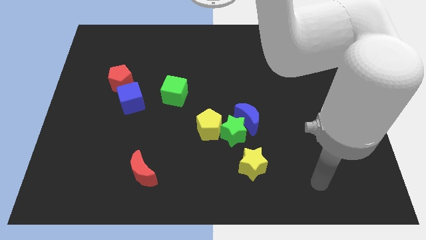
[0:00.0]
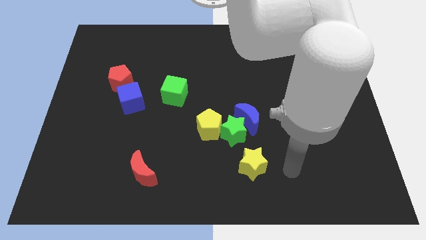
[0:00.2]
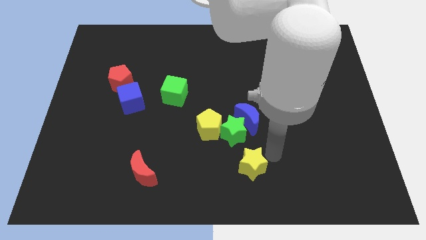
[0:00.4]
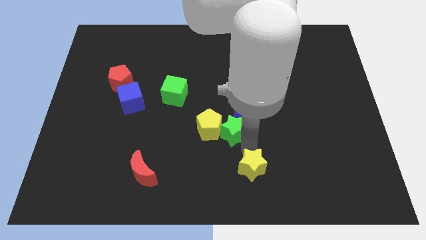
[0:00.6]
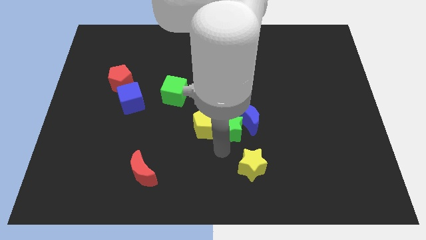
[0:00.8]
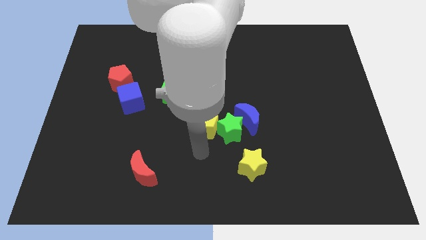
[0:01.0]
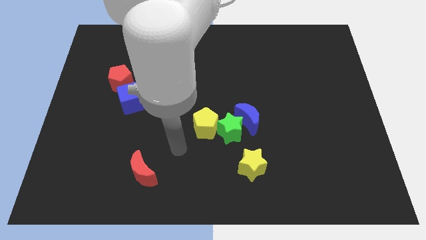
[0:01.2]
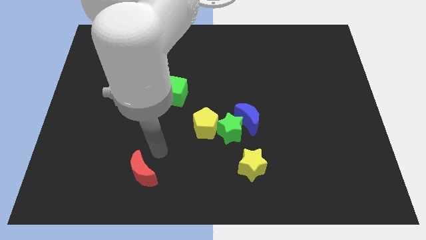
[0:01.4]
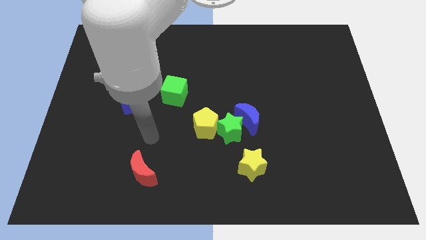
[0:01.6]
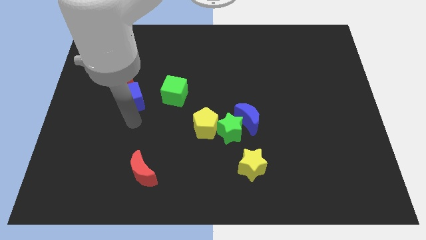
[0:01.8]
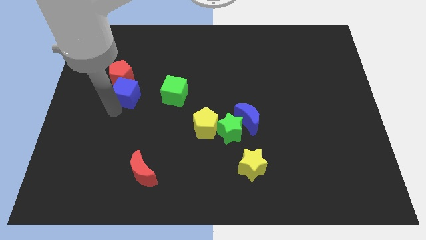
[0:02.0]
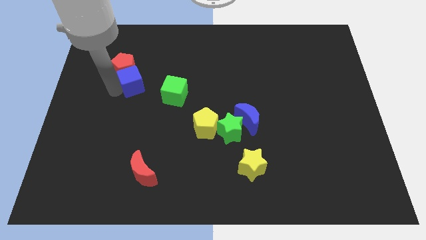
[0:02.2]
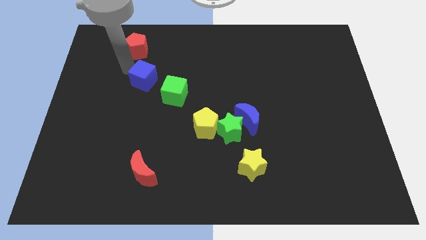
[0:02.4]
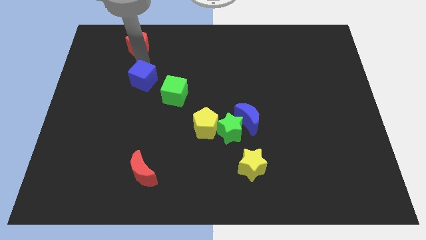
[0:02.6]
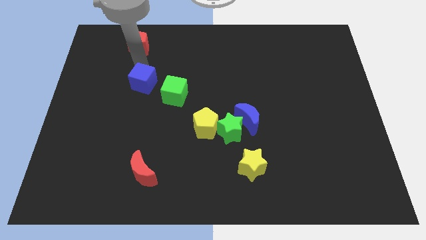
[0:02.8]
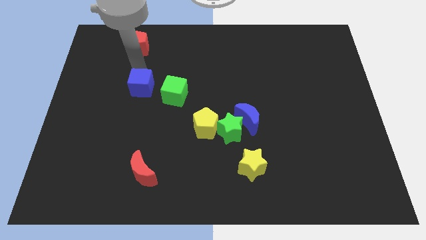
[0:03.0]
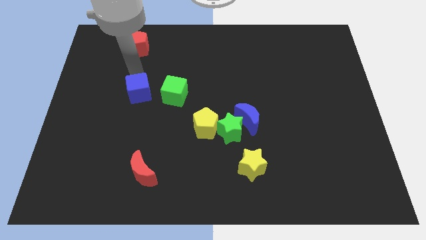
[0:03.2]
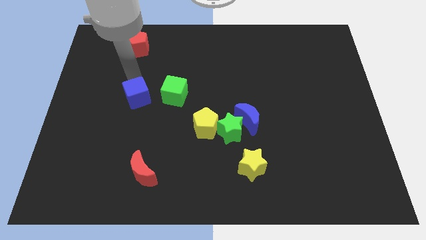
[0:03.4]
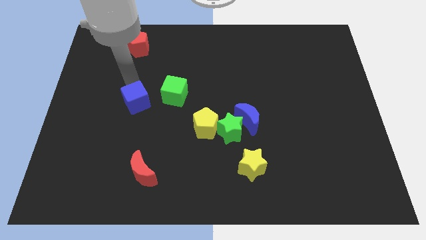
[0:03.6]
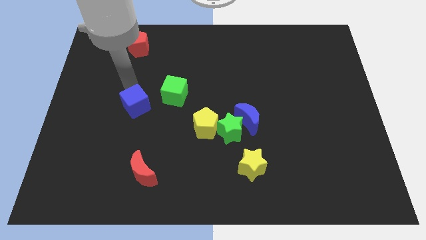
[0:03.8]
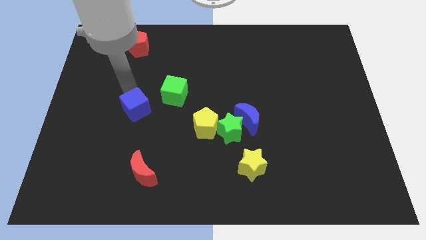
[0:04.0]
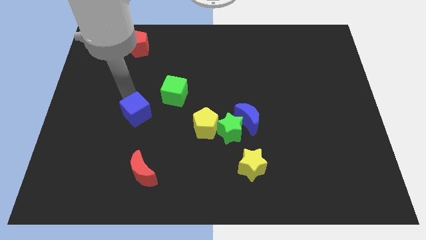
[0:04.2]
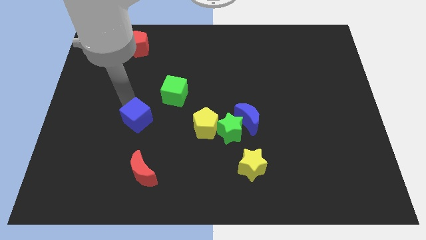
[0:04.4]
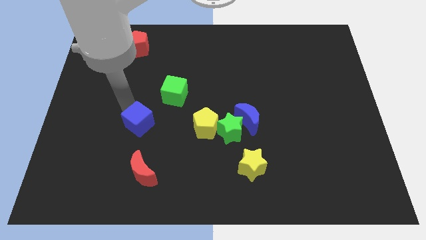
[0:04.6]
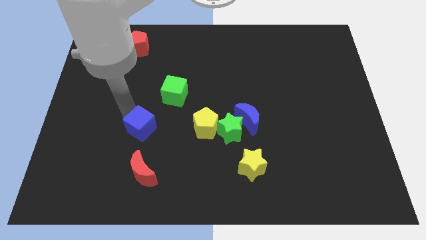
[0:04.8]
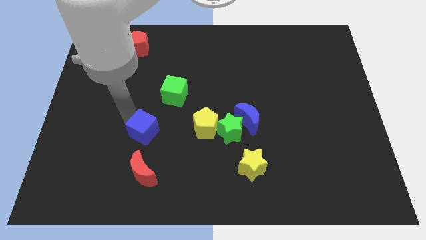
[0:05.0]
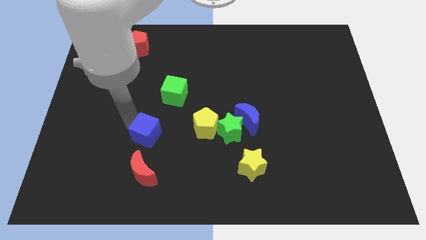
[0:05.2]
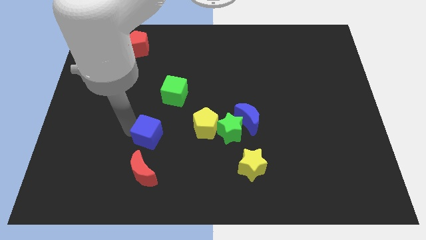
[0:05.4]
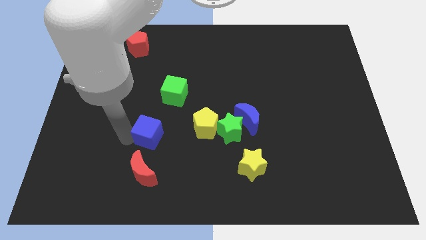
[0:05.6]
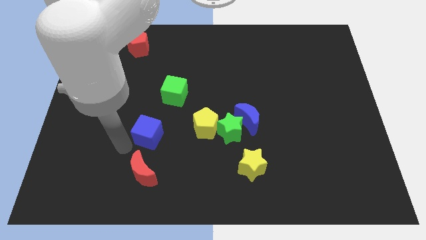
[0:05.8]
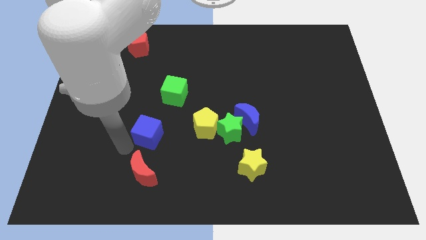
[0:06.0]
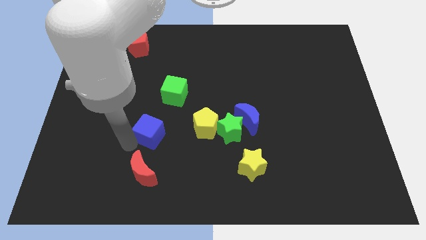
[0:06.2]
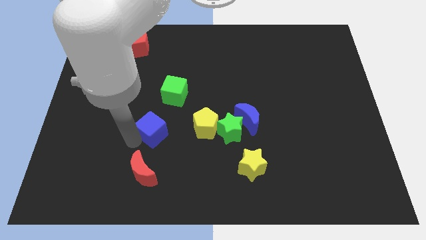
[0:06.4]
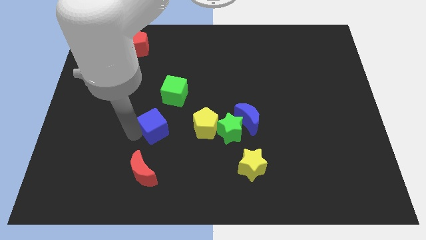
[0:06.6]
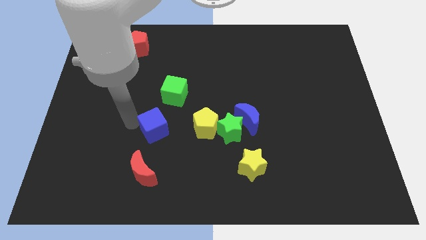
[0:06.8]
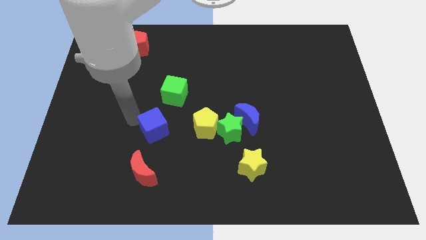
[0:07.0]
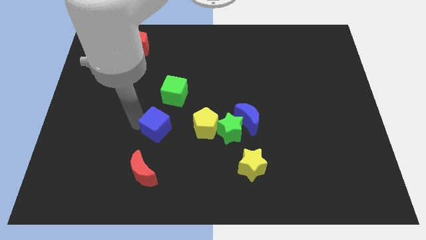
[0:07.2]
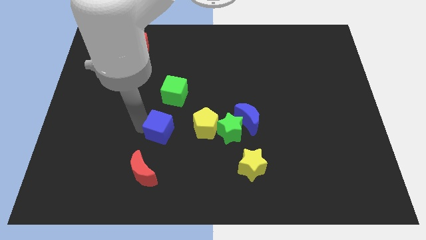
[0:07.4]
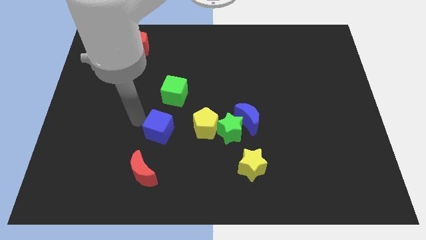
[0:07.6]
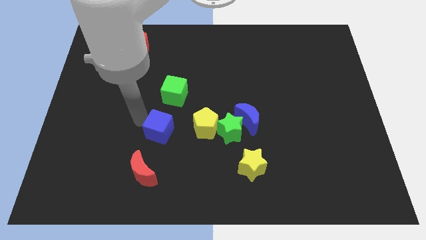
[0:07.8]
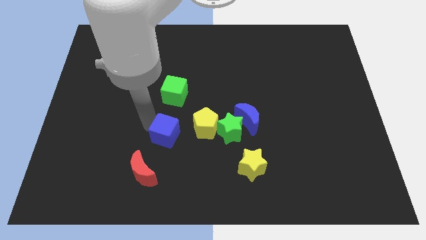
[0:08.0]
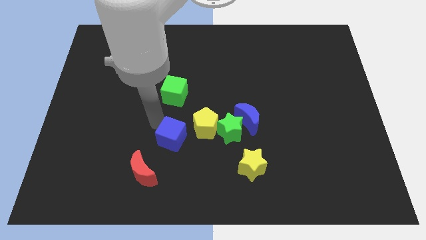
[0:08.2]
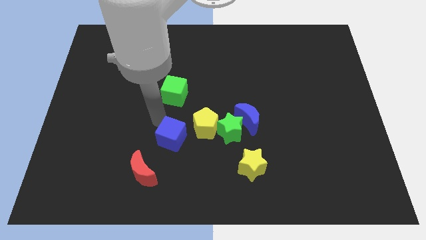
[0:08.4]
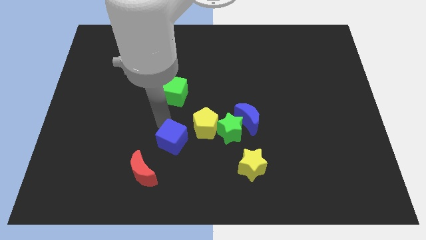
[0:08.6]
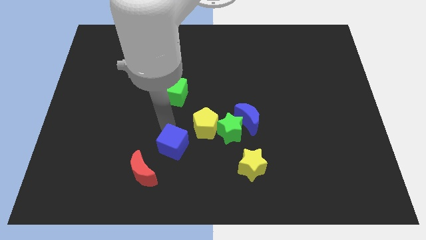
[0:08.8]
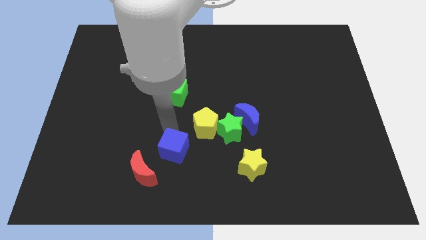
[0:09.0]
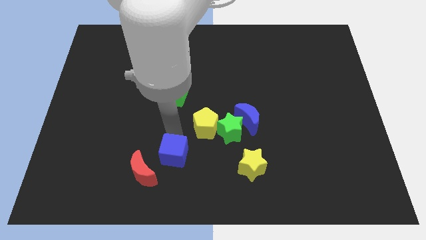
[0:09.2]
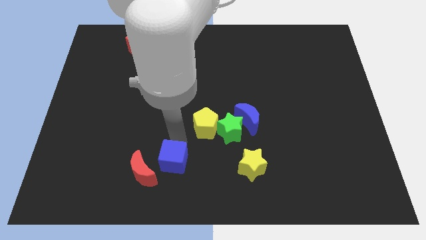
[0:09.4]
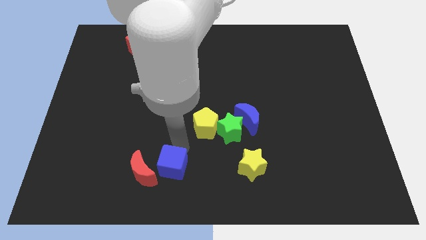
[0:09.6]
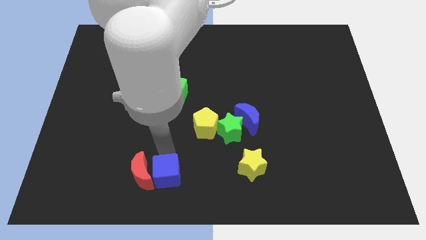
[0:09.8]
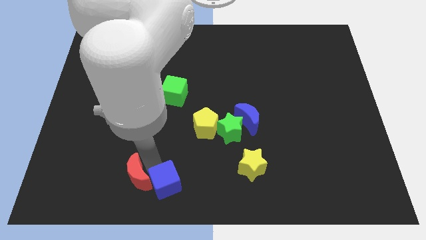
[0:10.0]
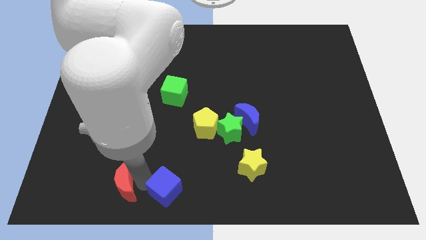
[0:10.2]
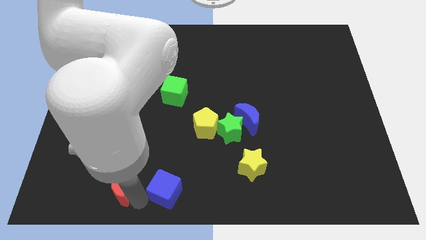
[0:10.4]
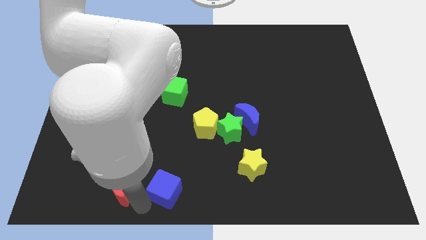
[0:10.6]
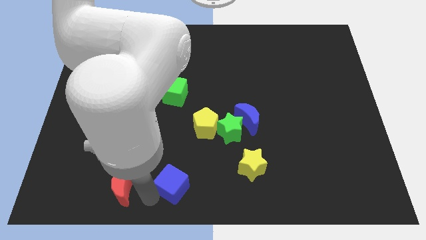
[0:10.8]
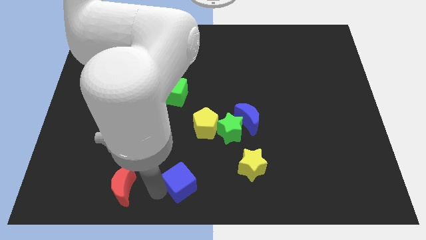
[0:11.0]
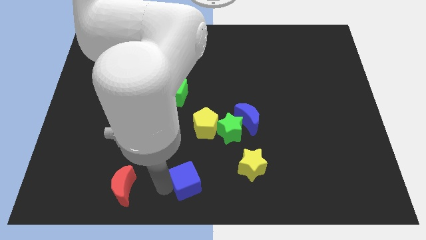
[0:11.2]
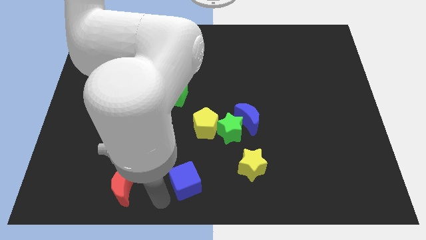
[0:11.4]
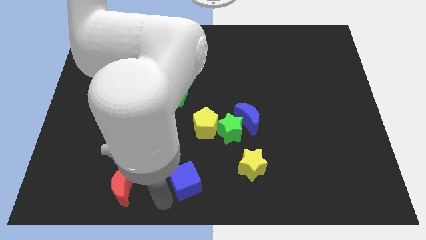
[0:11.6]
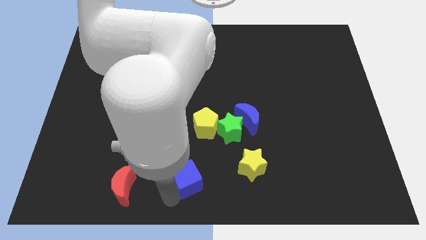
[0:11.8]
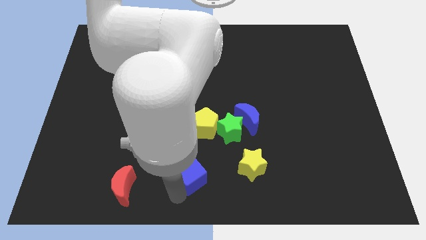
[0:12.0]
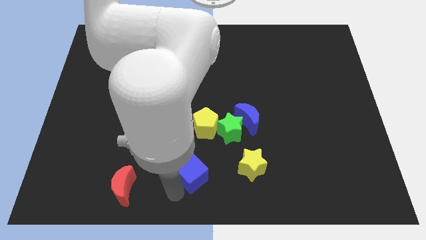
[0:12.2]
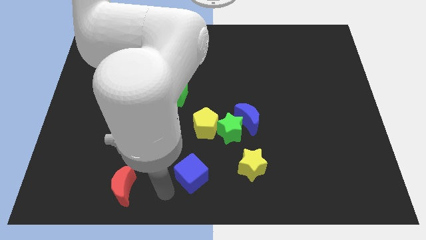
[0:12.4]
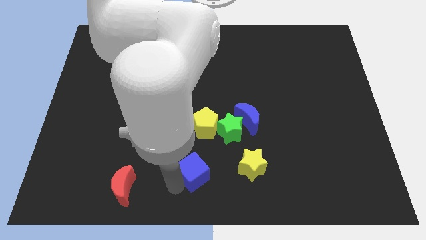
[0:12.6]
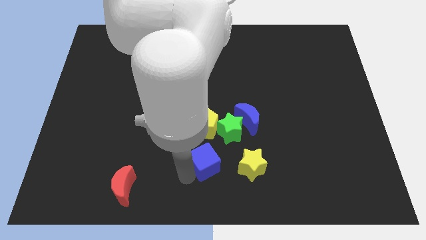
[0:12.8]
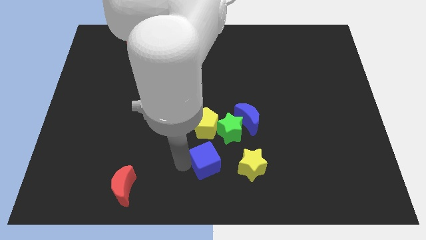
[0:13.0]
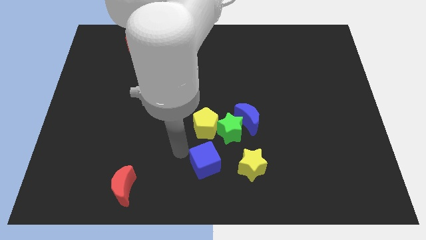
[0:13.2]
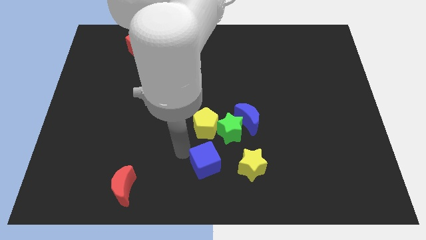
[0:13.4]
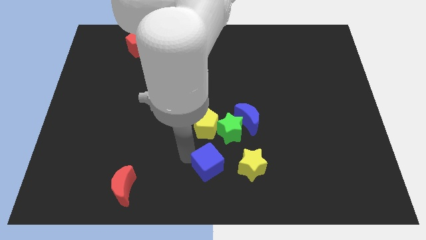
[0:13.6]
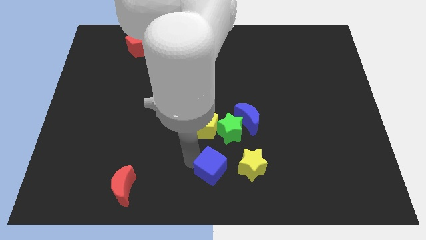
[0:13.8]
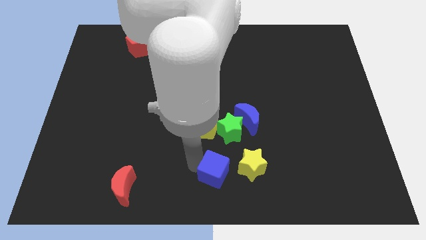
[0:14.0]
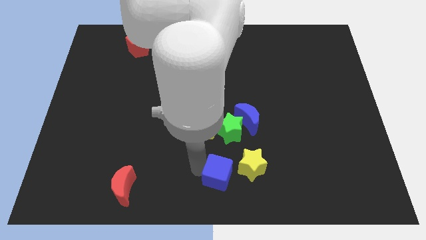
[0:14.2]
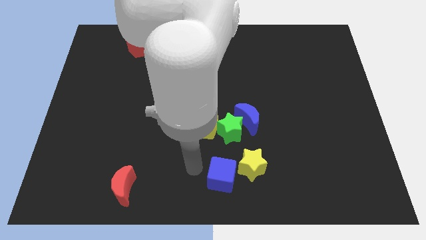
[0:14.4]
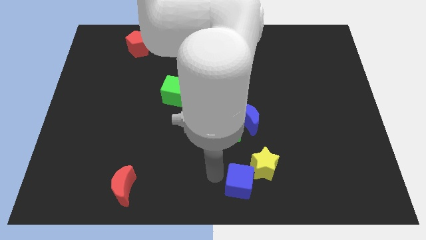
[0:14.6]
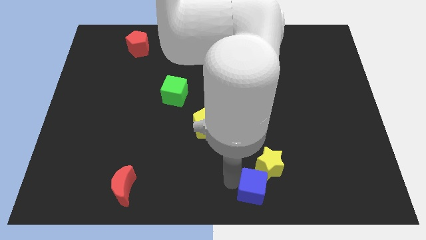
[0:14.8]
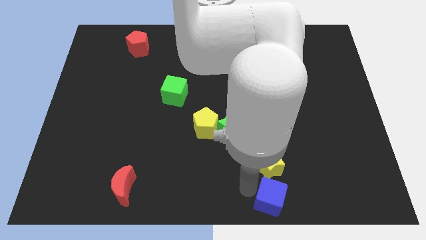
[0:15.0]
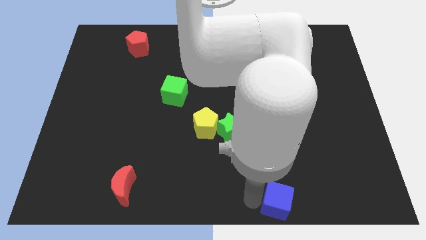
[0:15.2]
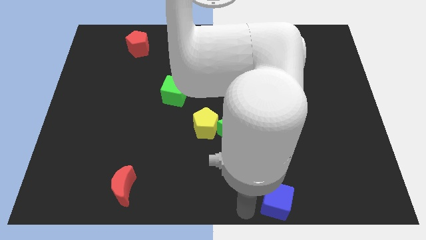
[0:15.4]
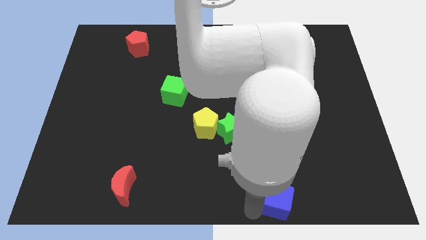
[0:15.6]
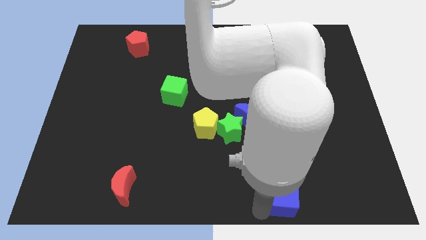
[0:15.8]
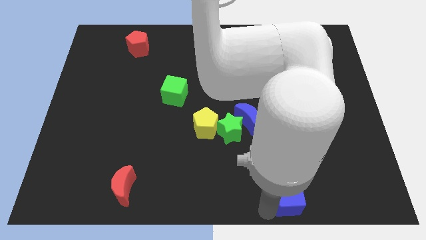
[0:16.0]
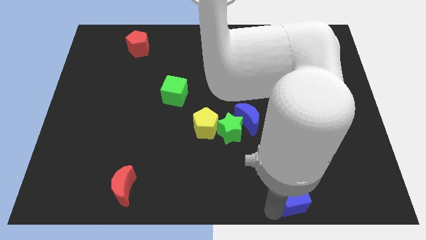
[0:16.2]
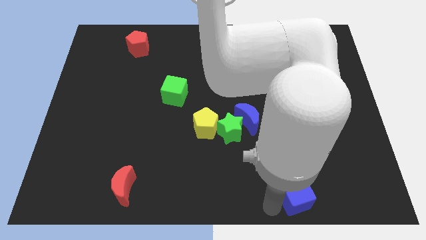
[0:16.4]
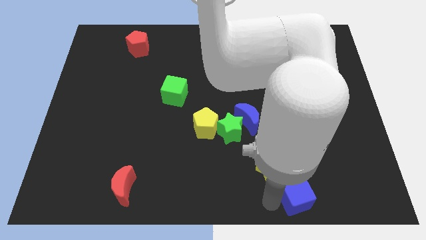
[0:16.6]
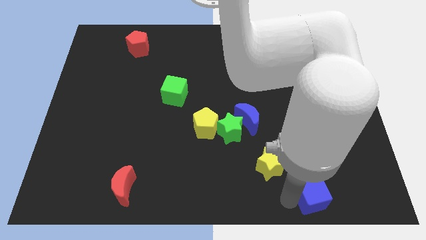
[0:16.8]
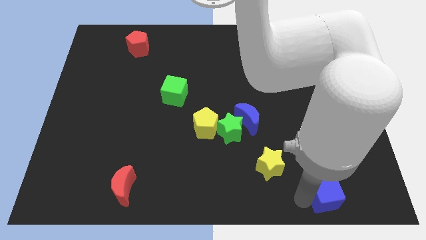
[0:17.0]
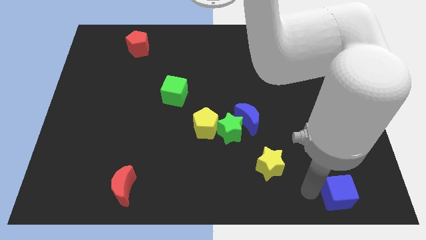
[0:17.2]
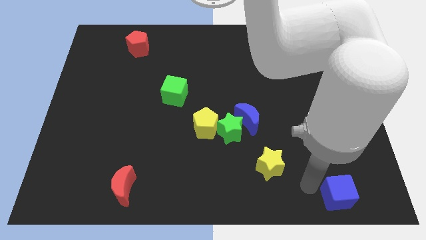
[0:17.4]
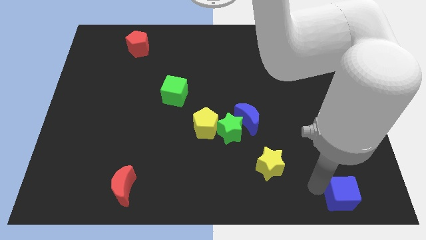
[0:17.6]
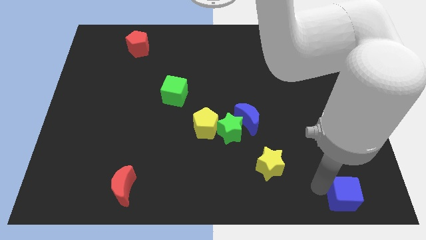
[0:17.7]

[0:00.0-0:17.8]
push the blue cube to the bottom right
